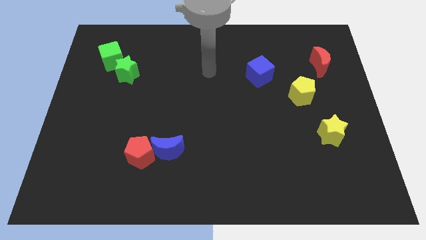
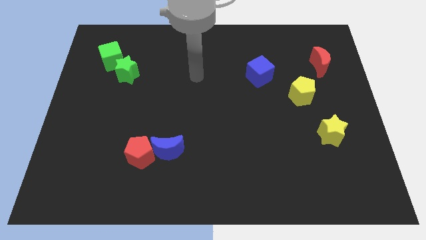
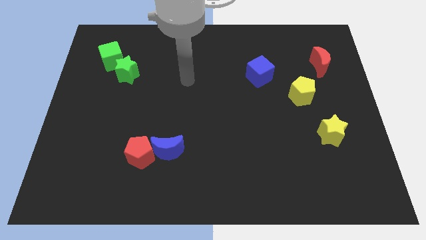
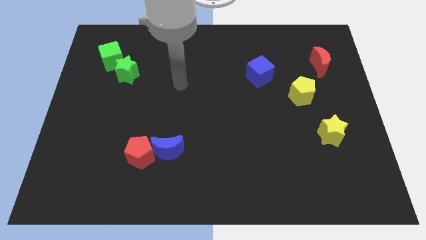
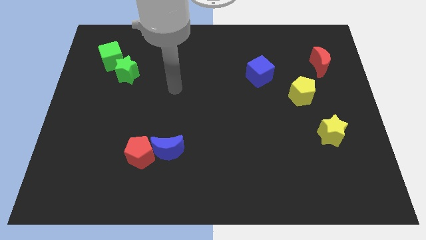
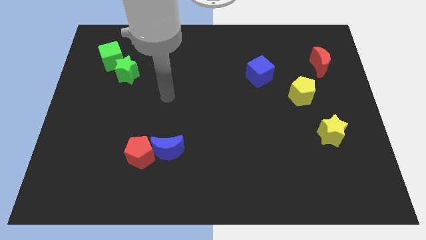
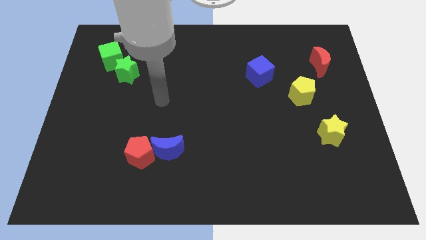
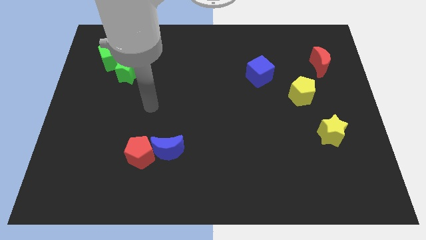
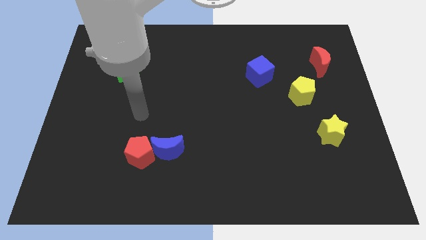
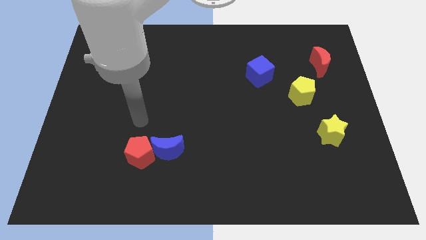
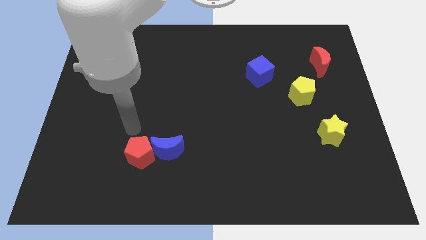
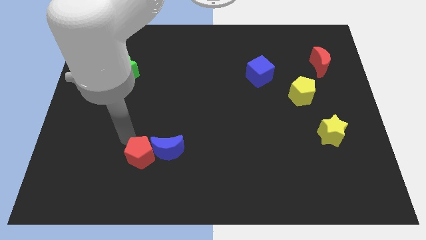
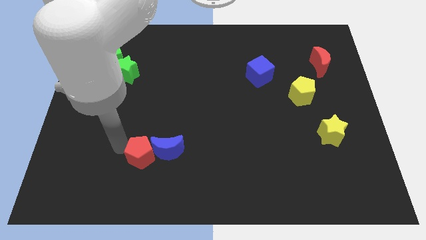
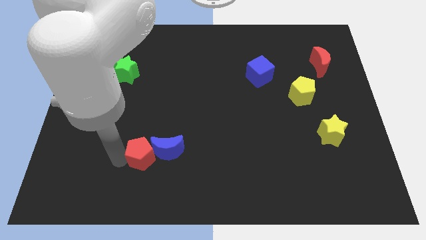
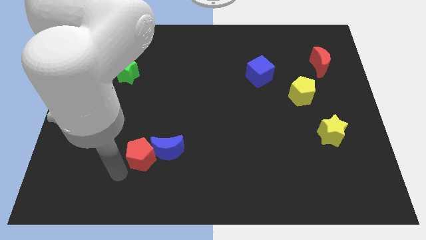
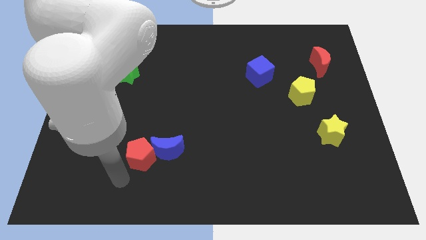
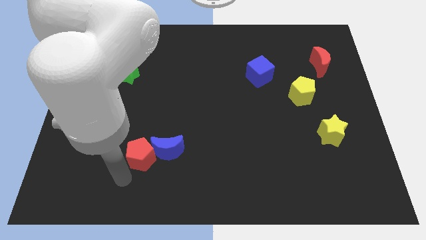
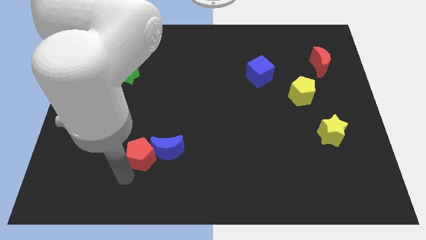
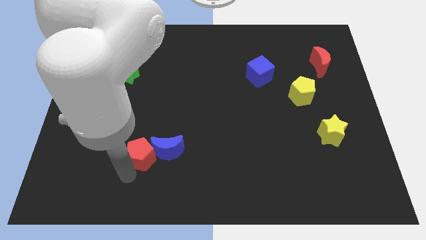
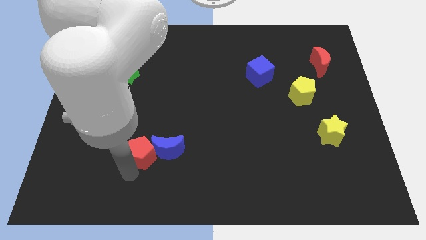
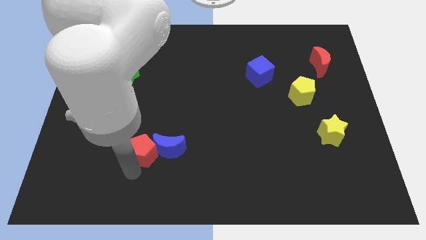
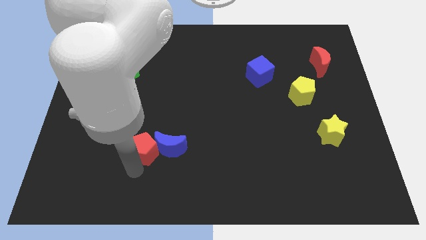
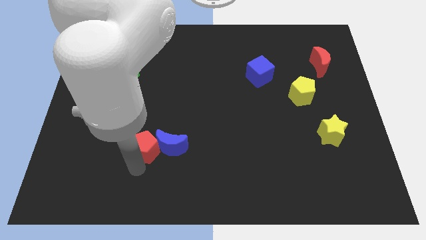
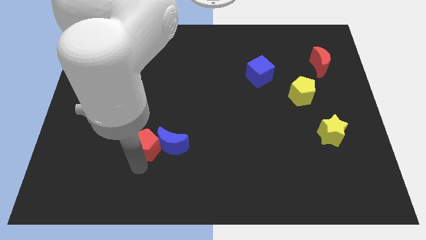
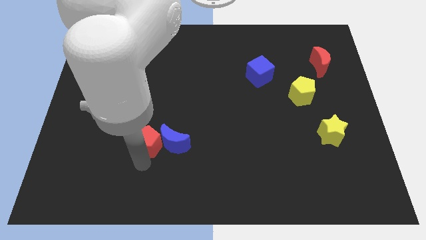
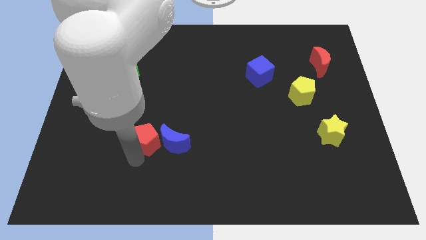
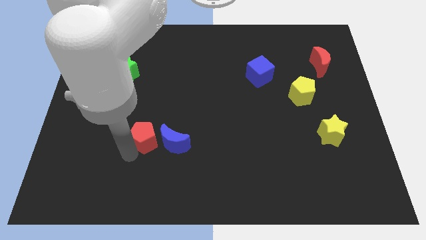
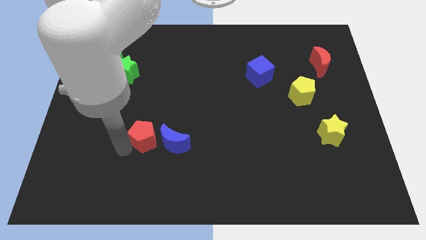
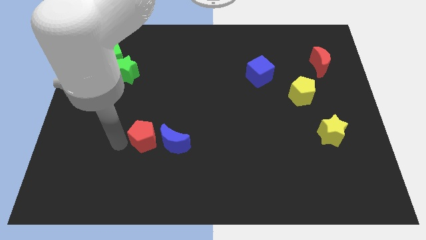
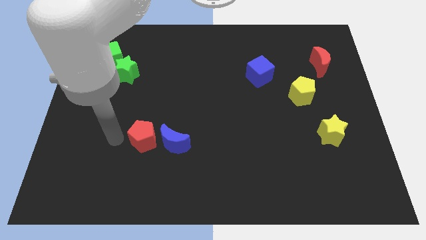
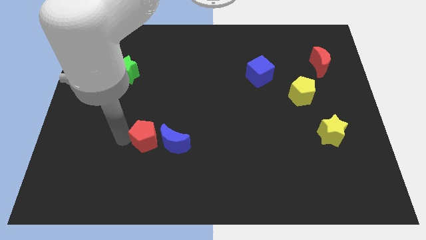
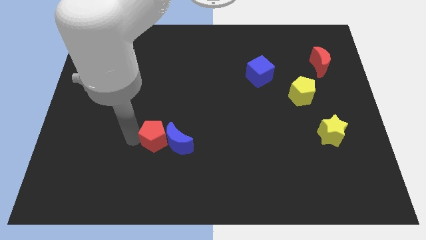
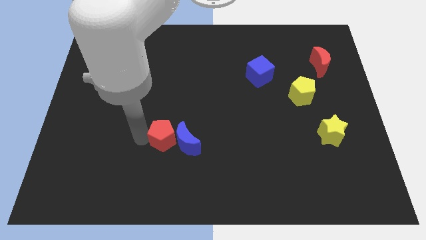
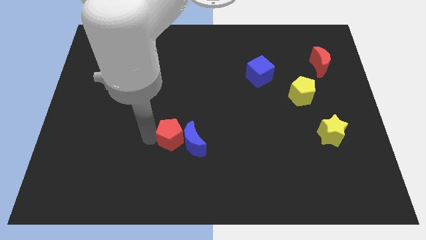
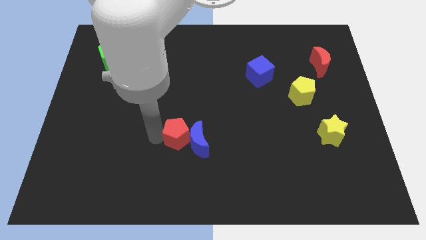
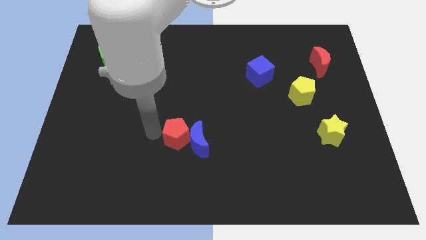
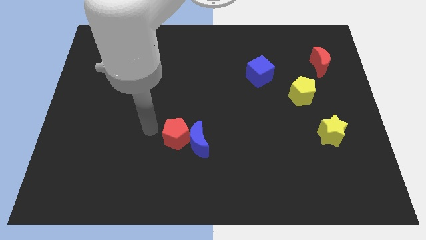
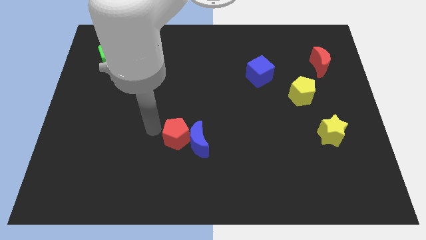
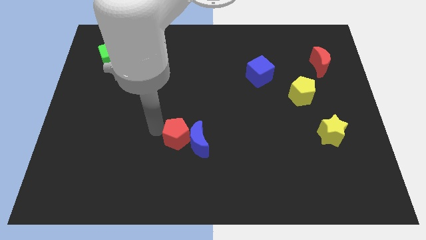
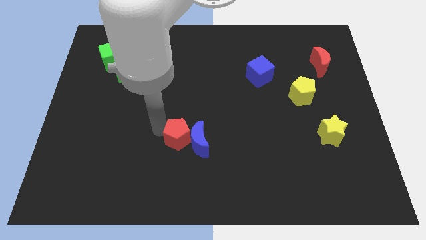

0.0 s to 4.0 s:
slightly move the red pentagon to the right

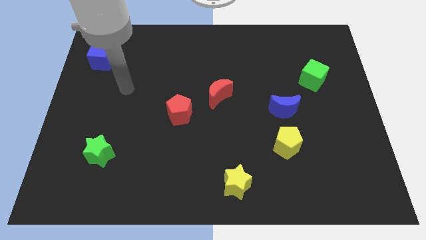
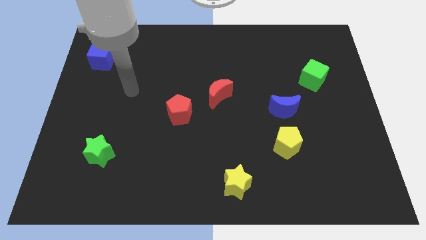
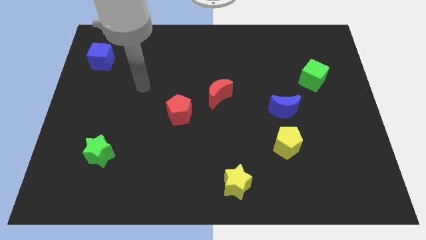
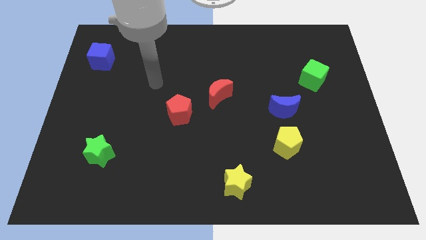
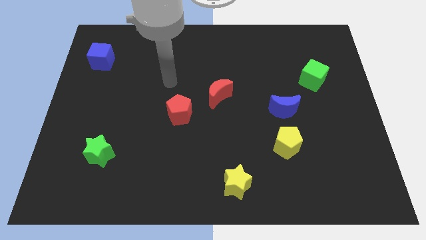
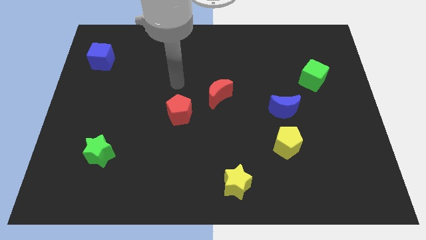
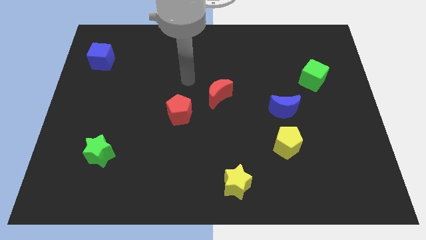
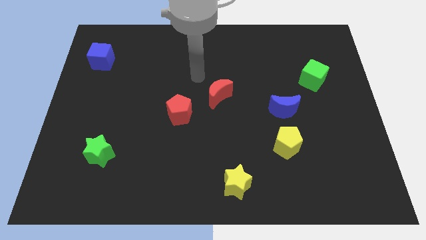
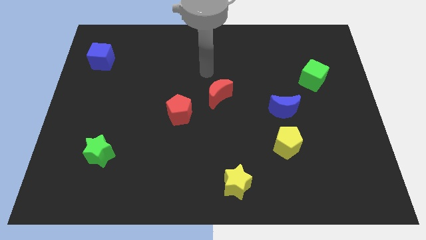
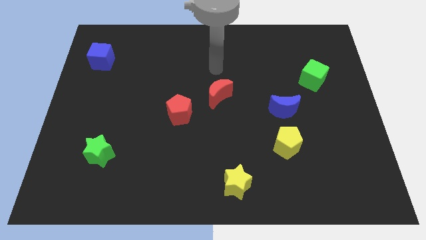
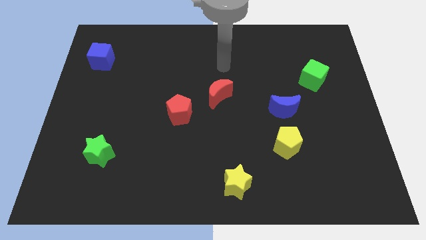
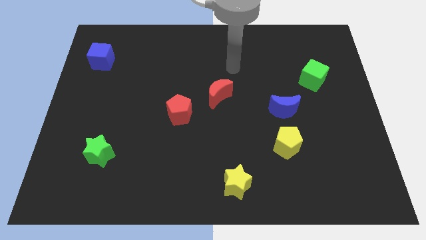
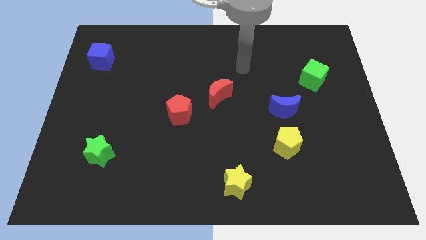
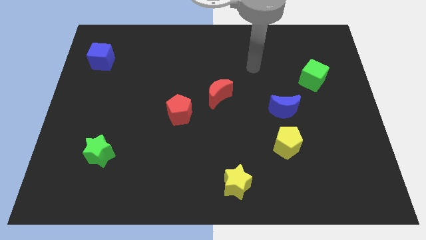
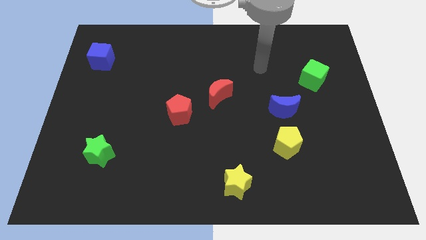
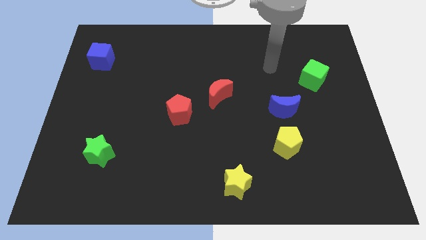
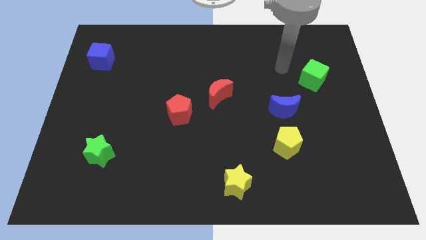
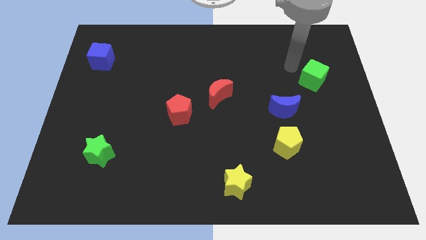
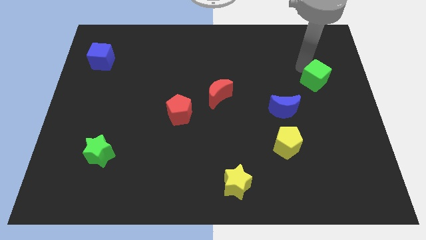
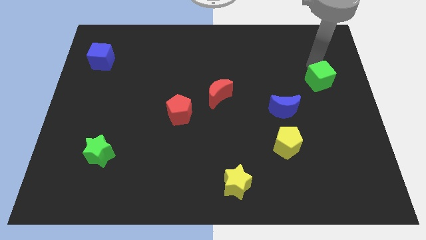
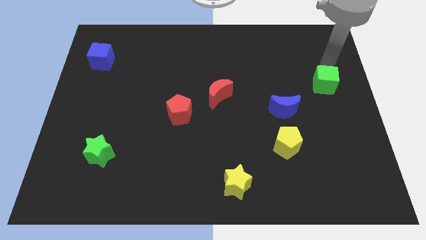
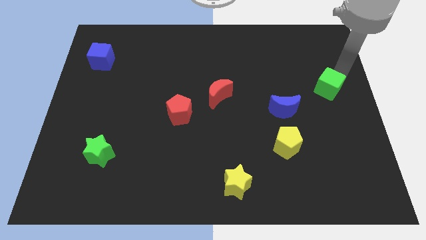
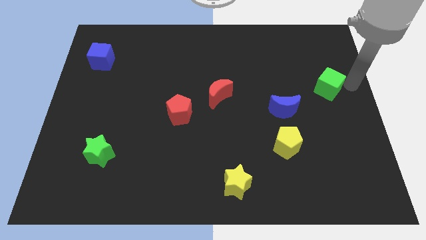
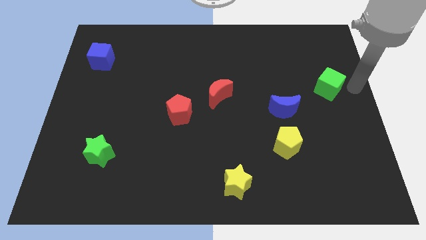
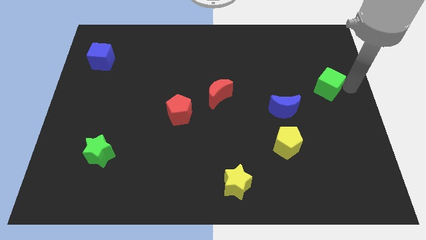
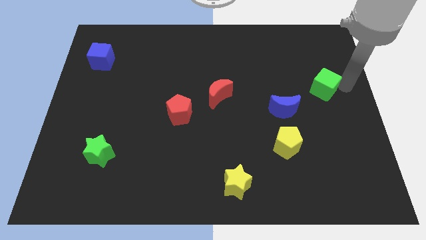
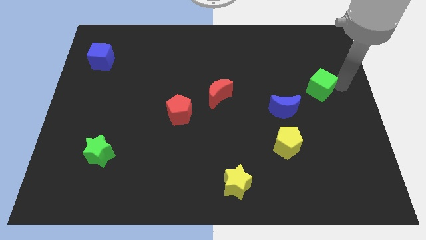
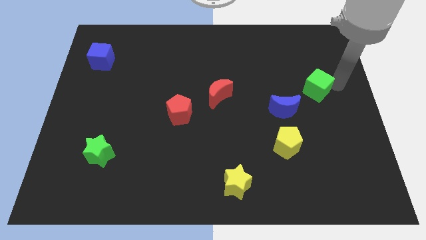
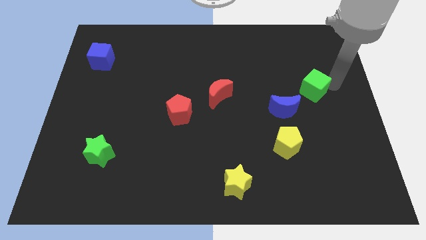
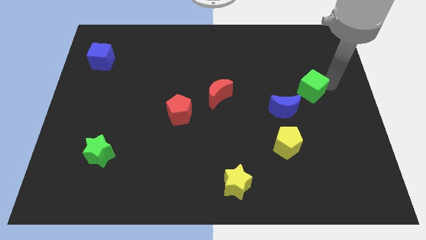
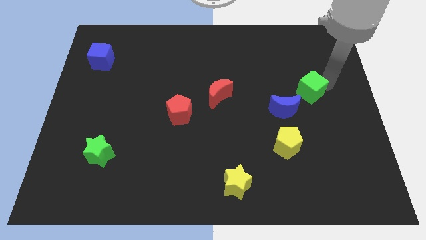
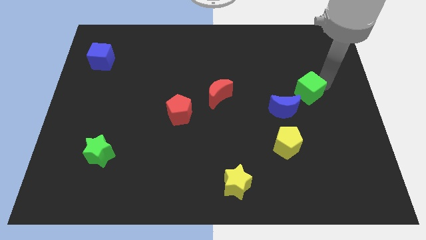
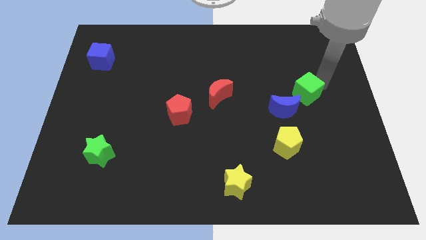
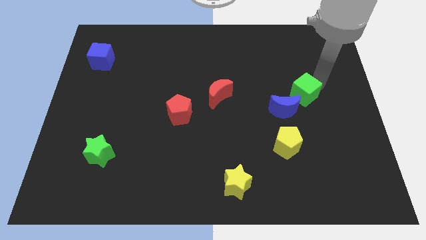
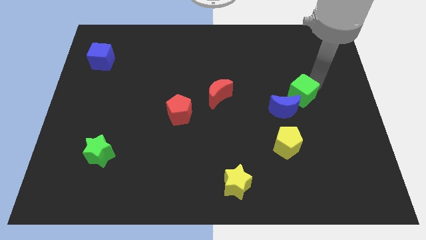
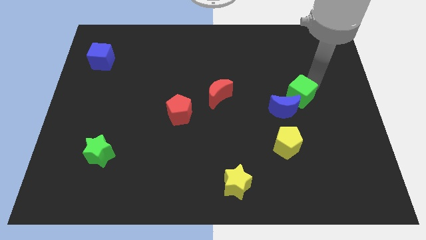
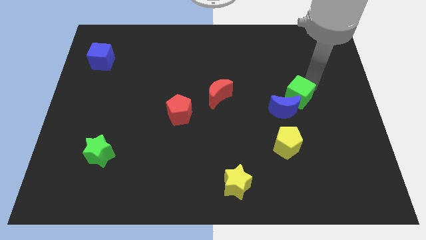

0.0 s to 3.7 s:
move the green cube a little downwards and left

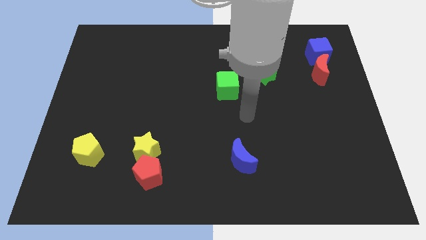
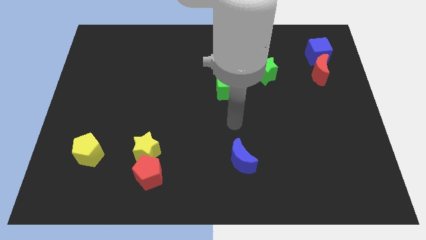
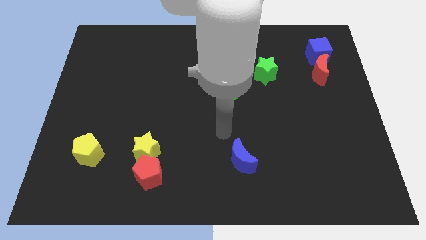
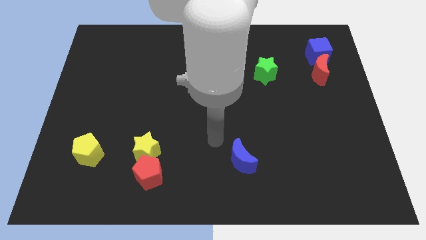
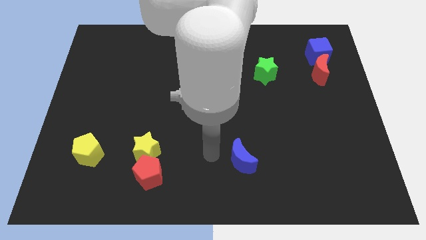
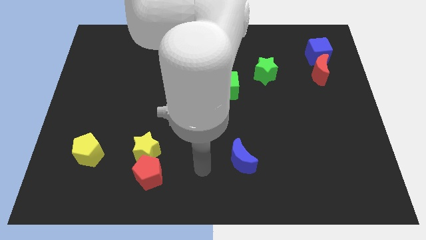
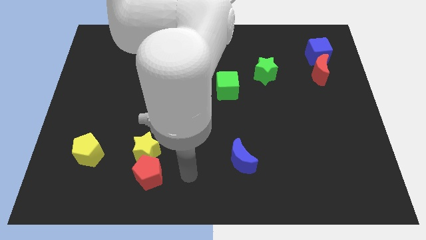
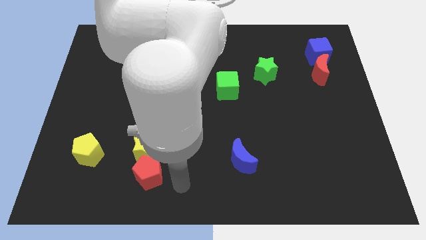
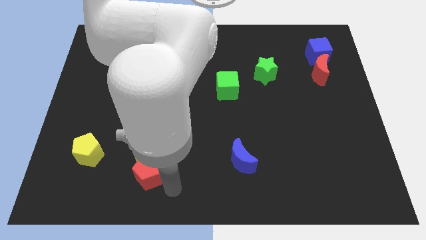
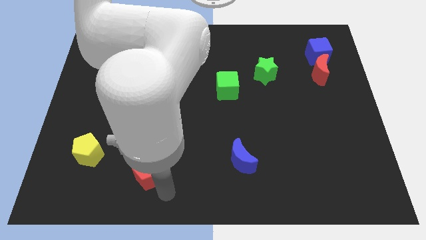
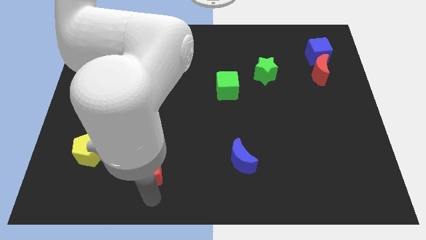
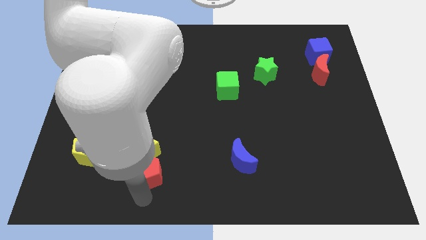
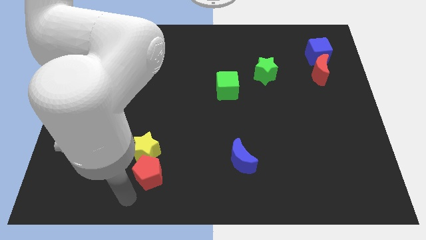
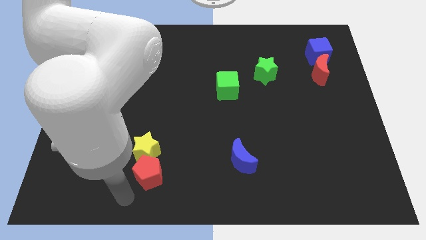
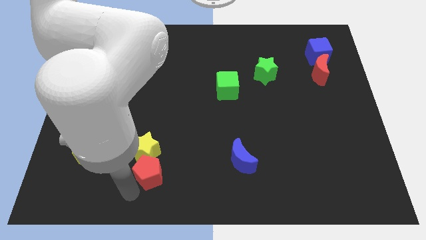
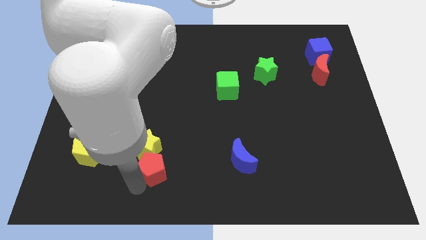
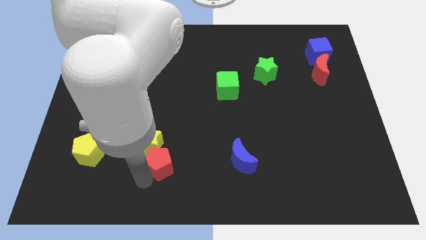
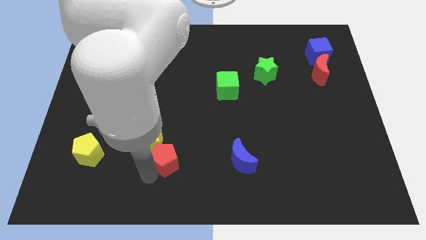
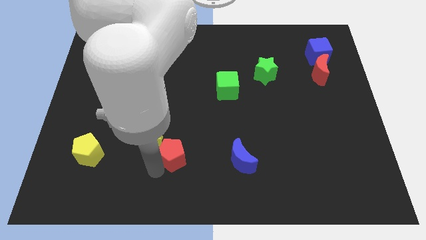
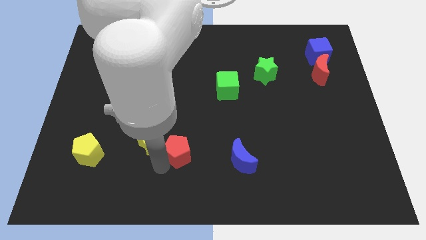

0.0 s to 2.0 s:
slightly move the red pentagon upwards and to the right diagonally
